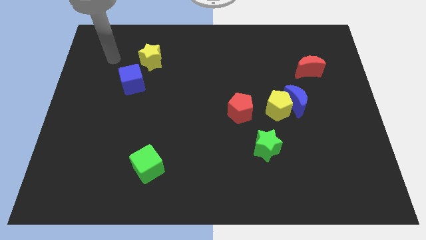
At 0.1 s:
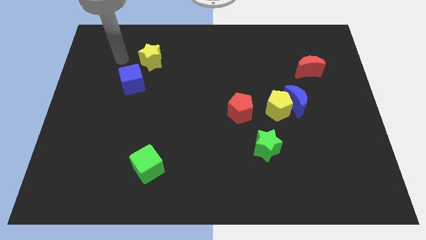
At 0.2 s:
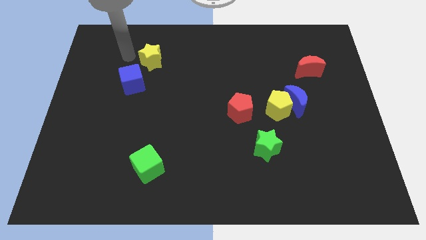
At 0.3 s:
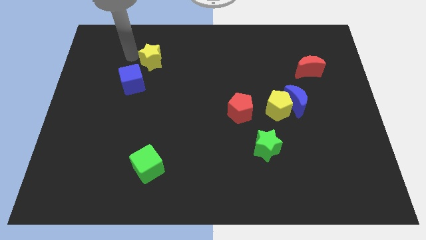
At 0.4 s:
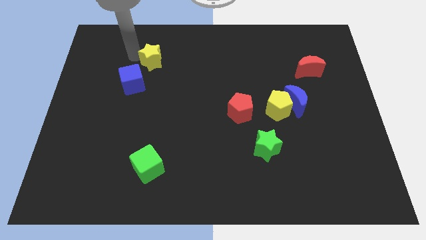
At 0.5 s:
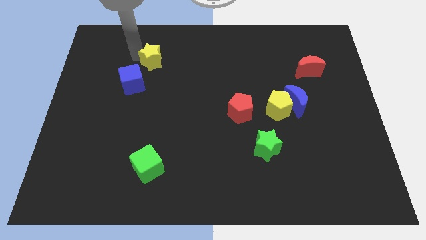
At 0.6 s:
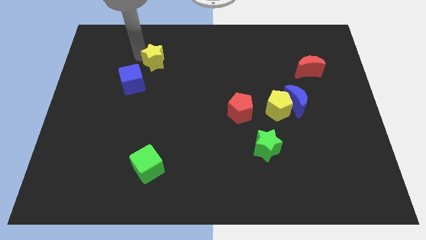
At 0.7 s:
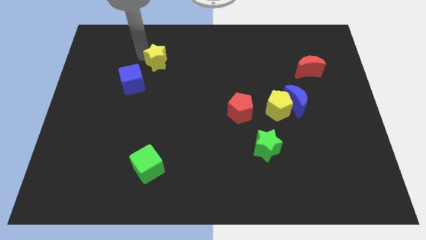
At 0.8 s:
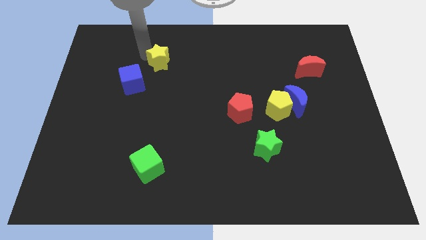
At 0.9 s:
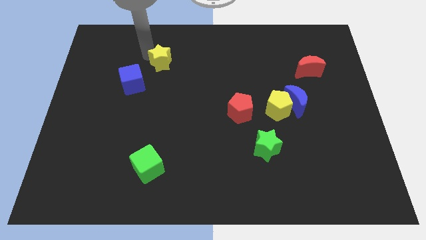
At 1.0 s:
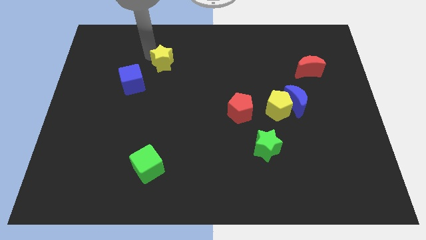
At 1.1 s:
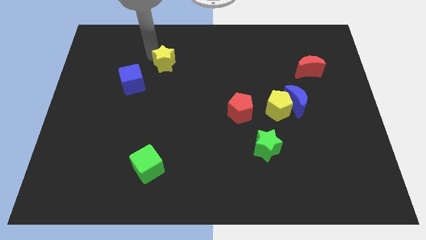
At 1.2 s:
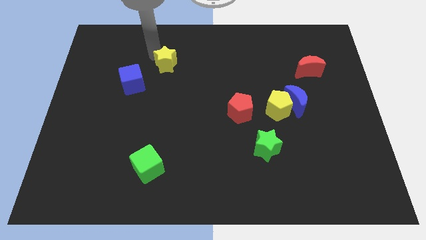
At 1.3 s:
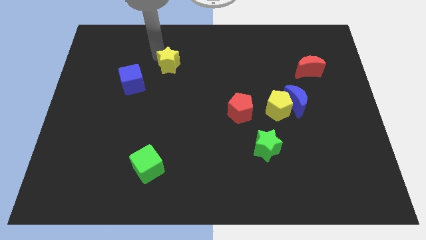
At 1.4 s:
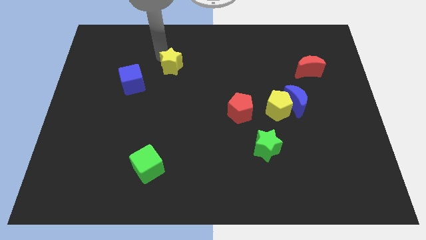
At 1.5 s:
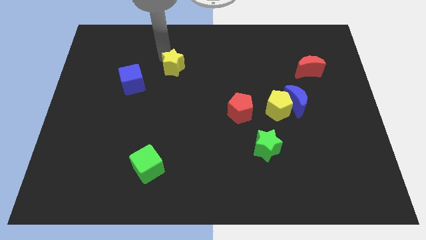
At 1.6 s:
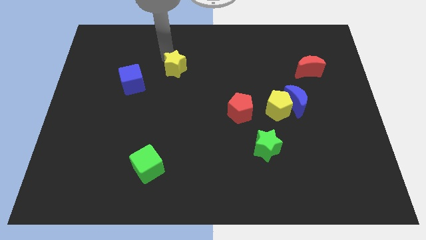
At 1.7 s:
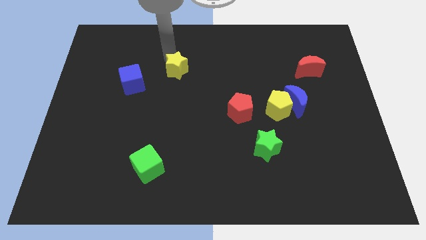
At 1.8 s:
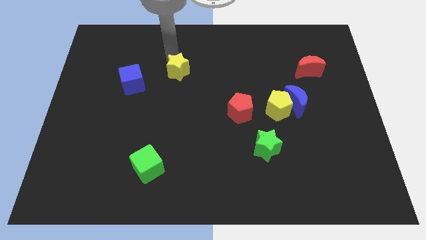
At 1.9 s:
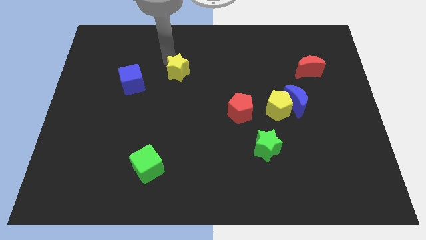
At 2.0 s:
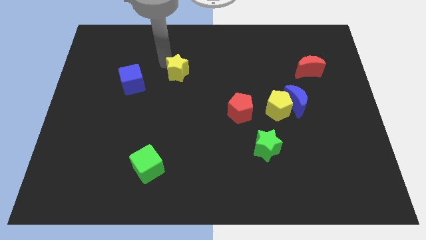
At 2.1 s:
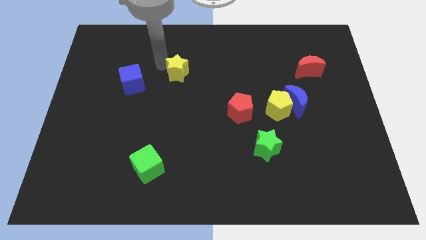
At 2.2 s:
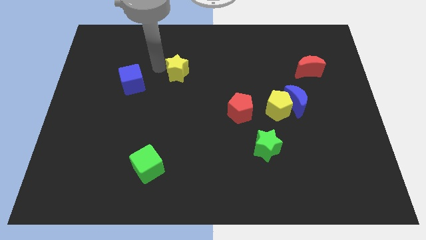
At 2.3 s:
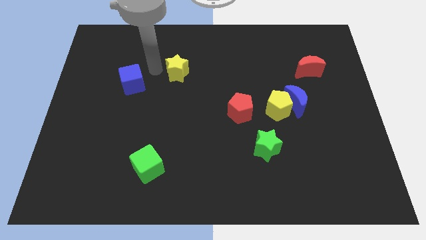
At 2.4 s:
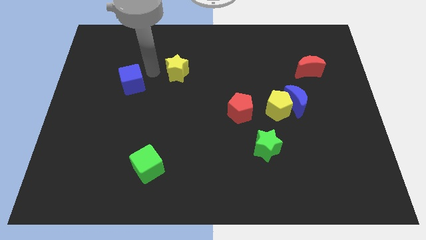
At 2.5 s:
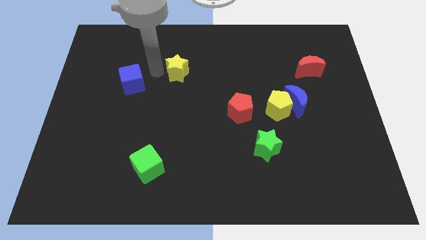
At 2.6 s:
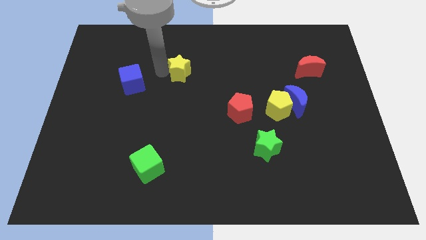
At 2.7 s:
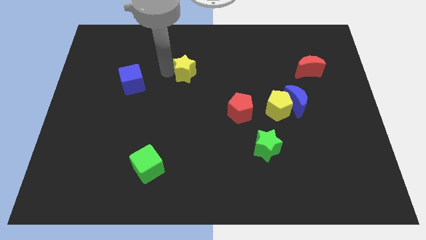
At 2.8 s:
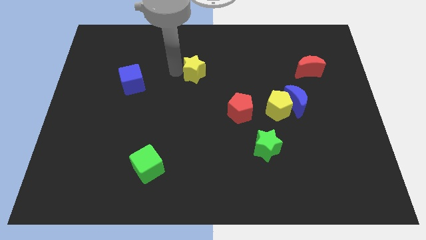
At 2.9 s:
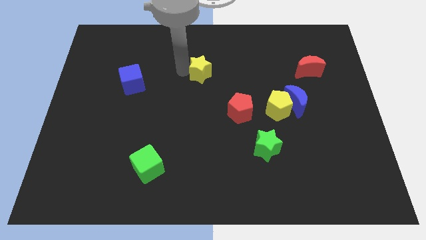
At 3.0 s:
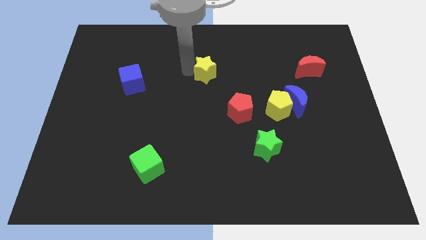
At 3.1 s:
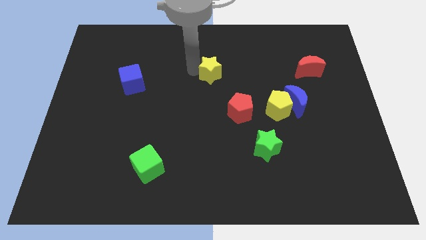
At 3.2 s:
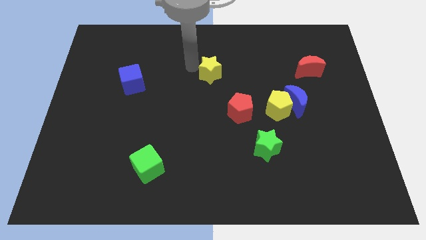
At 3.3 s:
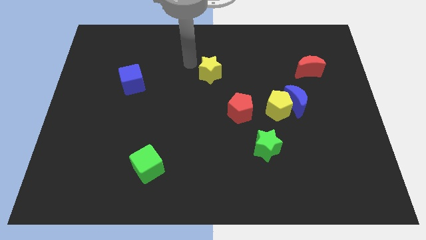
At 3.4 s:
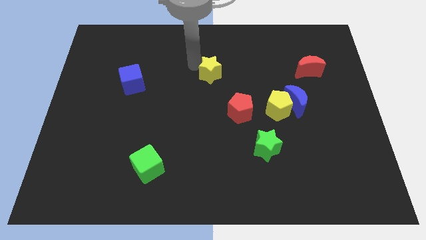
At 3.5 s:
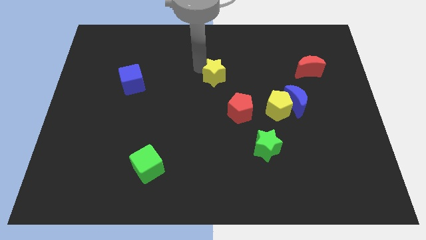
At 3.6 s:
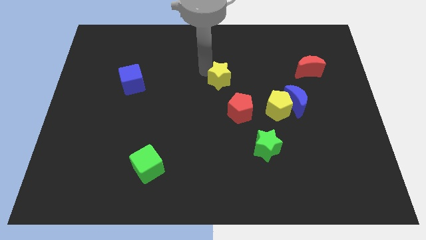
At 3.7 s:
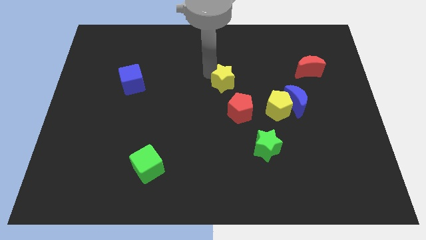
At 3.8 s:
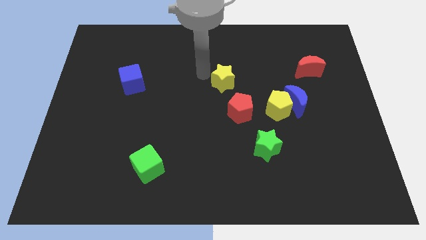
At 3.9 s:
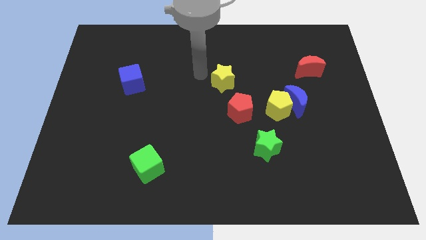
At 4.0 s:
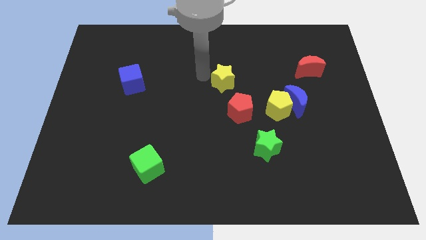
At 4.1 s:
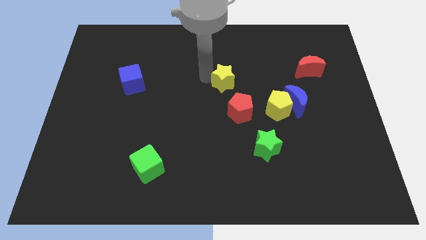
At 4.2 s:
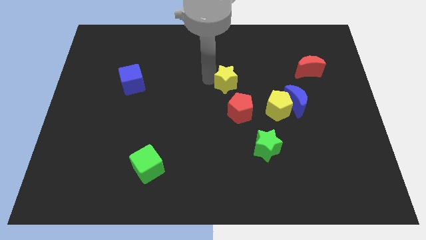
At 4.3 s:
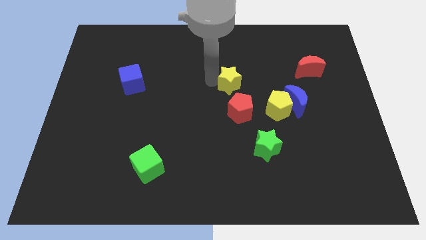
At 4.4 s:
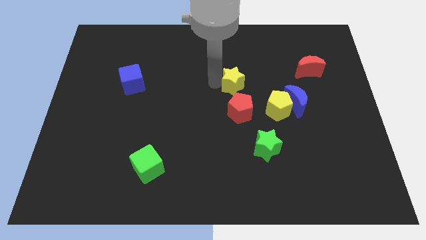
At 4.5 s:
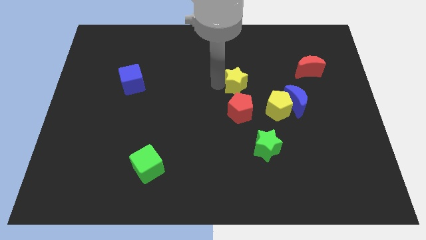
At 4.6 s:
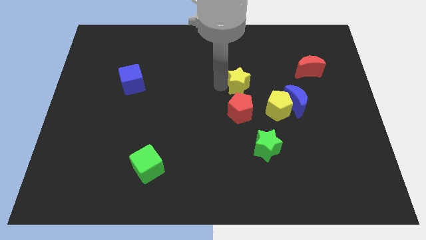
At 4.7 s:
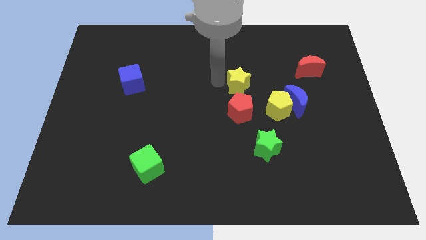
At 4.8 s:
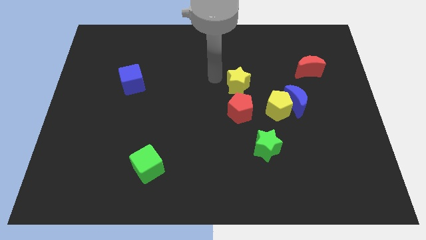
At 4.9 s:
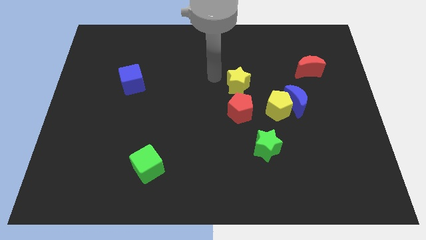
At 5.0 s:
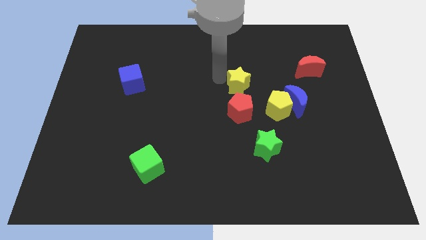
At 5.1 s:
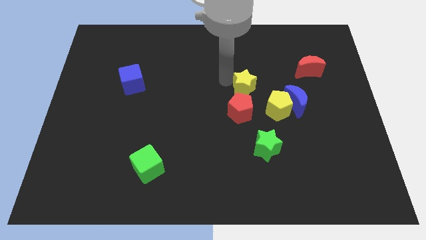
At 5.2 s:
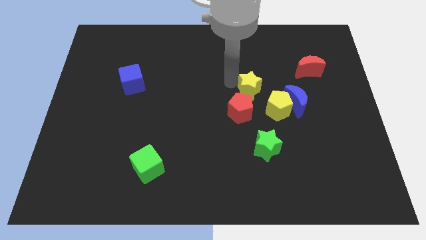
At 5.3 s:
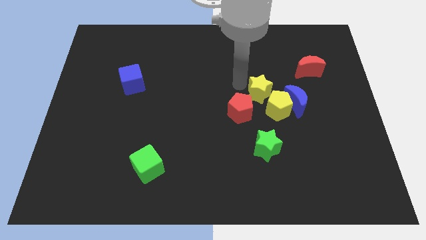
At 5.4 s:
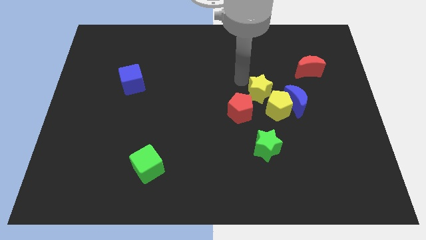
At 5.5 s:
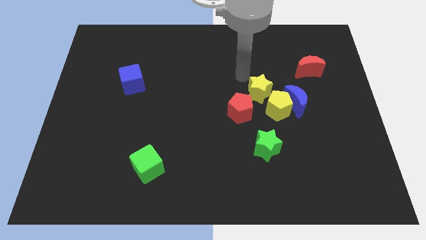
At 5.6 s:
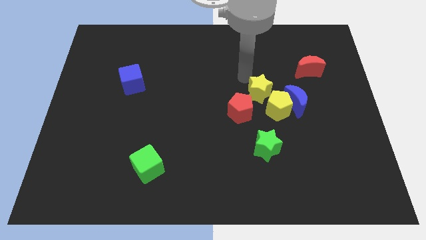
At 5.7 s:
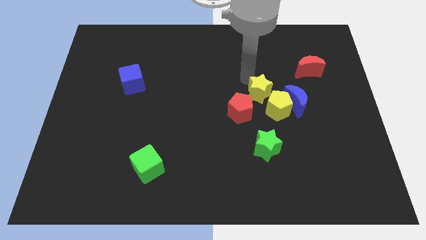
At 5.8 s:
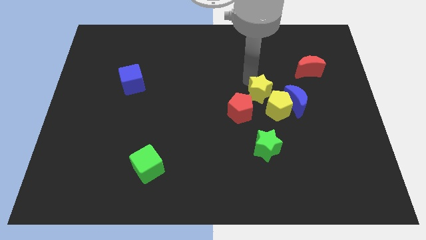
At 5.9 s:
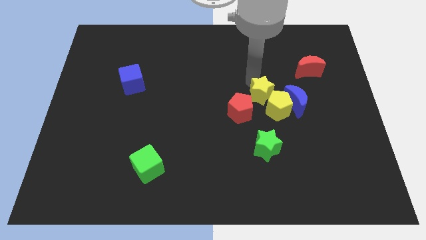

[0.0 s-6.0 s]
slide the yellow star towards the yellow pentagon

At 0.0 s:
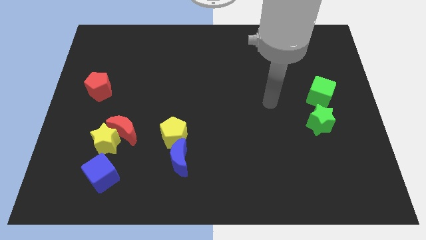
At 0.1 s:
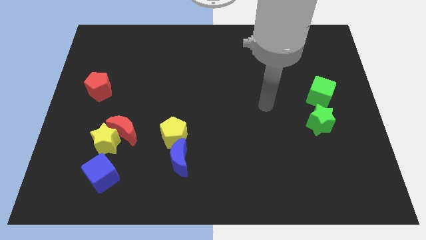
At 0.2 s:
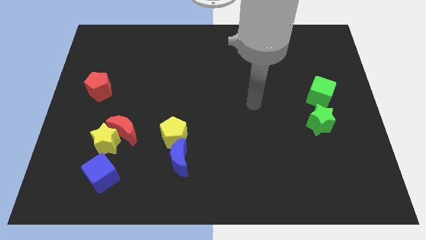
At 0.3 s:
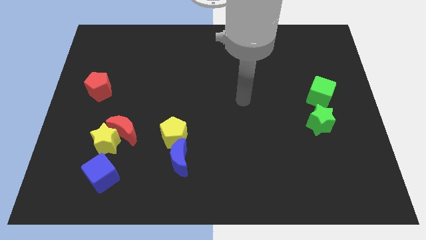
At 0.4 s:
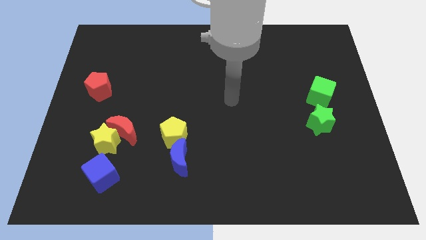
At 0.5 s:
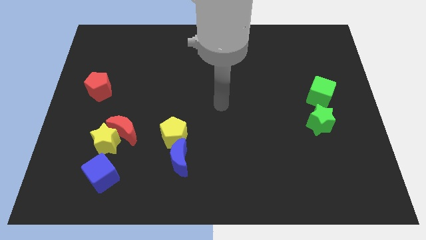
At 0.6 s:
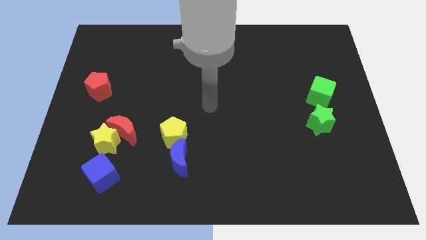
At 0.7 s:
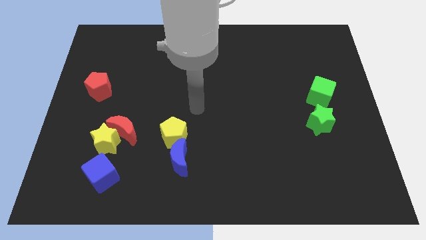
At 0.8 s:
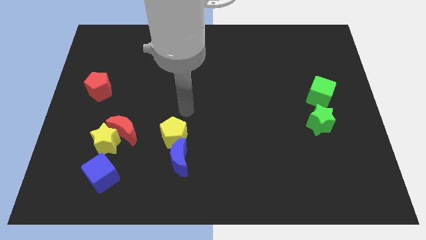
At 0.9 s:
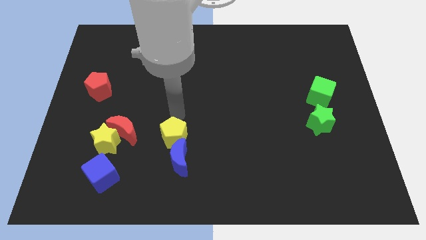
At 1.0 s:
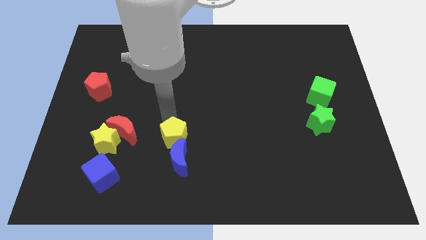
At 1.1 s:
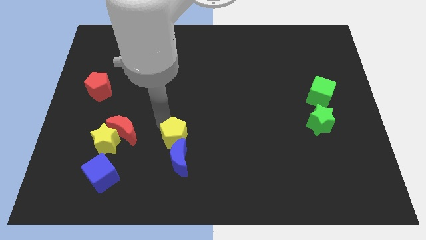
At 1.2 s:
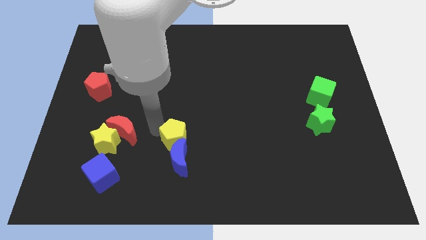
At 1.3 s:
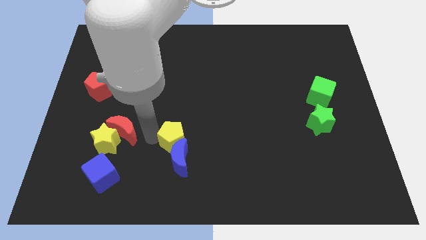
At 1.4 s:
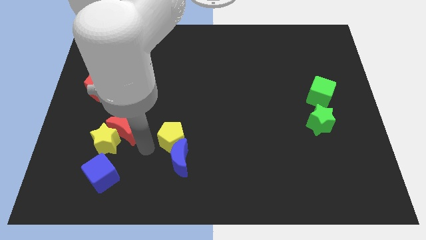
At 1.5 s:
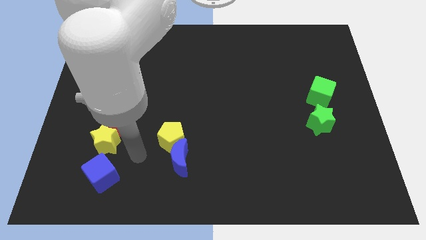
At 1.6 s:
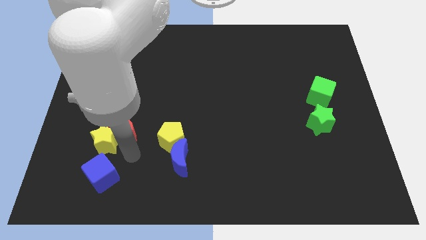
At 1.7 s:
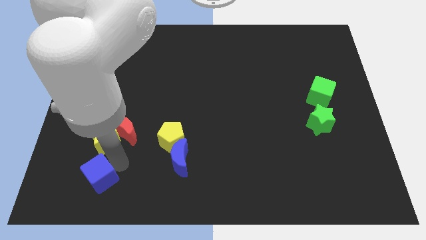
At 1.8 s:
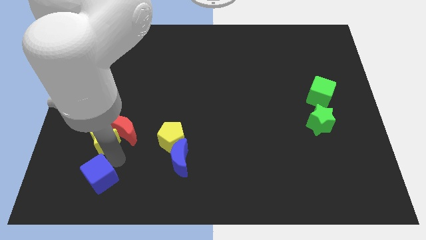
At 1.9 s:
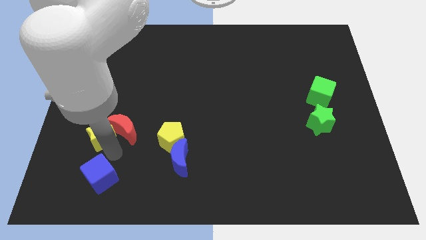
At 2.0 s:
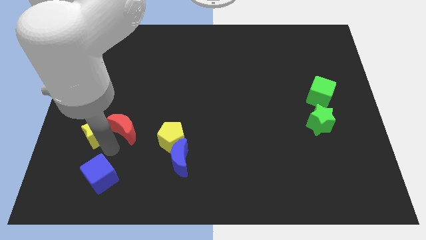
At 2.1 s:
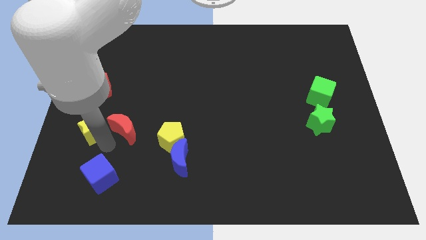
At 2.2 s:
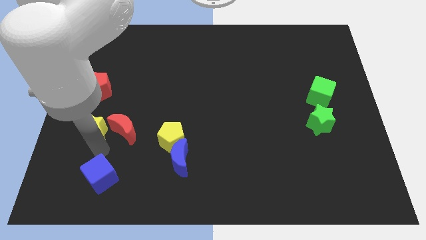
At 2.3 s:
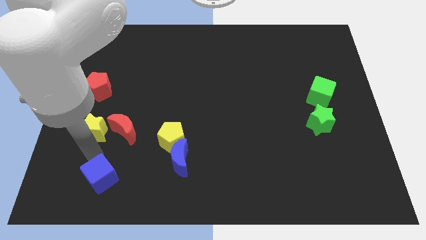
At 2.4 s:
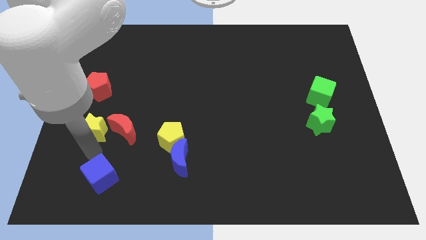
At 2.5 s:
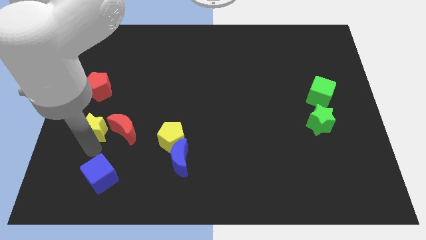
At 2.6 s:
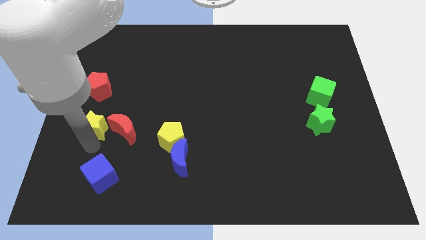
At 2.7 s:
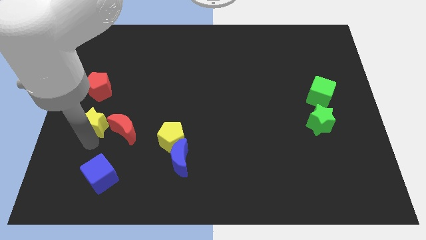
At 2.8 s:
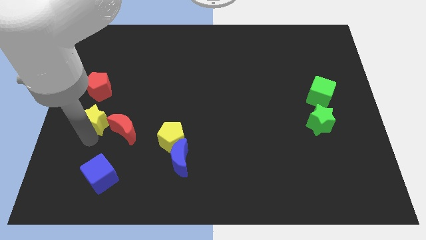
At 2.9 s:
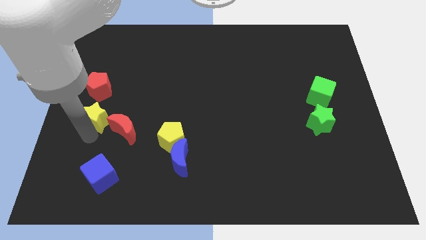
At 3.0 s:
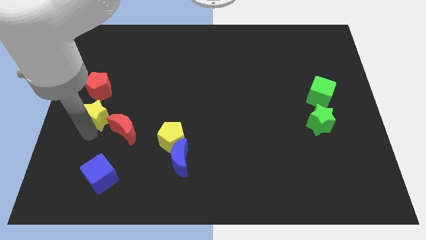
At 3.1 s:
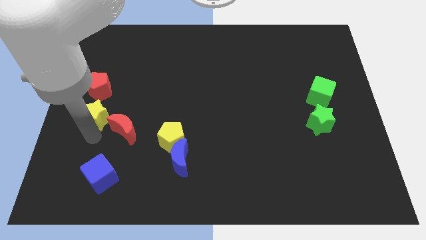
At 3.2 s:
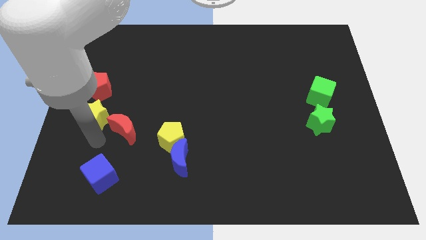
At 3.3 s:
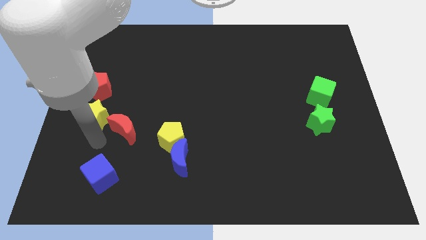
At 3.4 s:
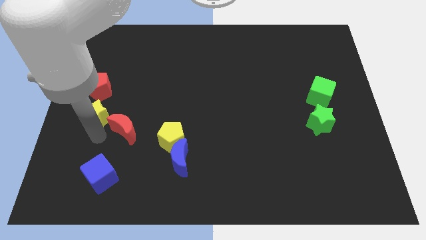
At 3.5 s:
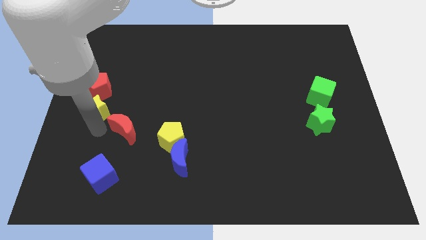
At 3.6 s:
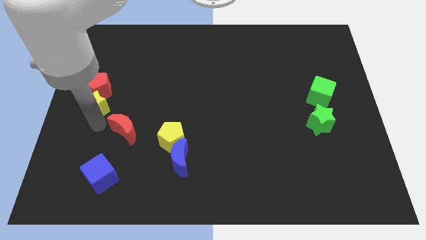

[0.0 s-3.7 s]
move the yellow star towards the red pentagon
